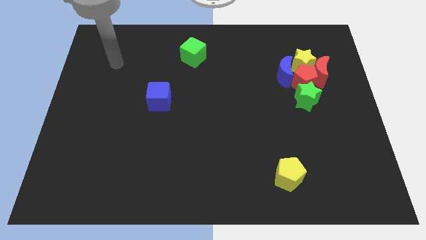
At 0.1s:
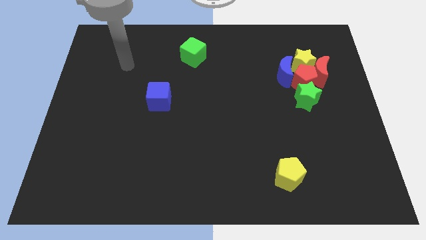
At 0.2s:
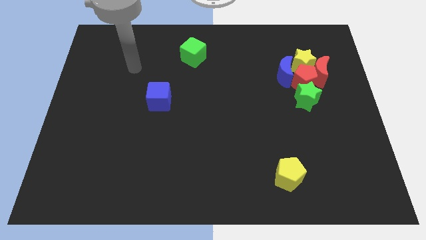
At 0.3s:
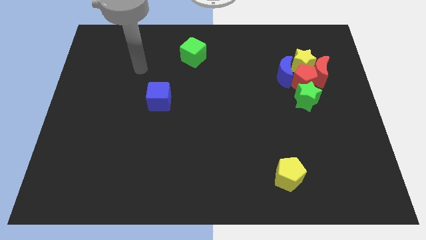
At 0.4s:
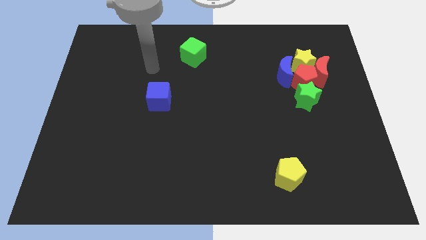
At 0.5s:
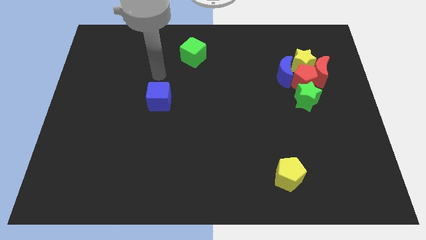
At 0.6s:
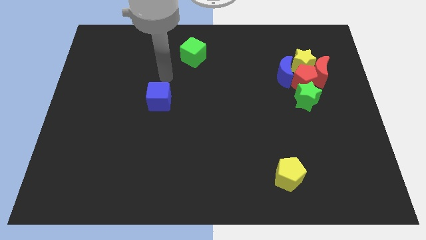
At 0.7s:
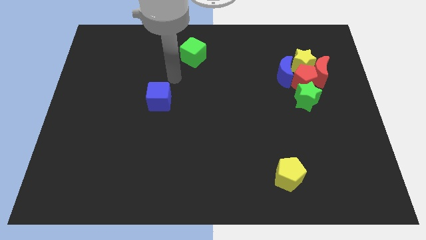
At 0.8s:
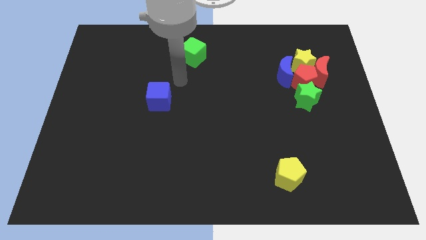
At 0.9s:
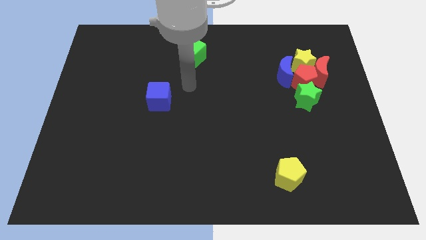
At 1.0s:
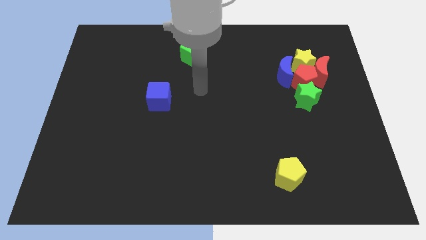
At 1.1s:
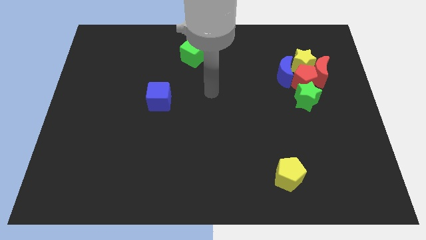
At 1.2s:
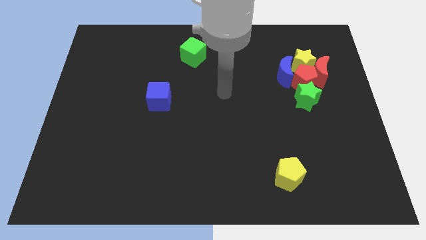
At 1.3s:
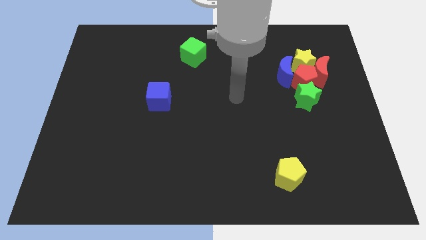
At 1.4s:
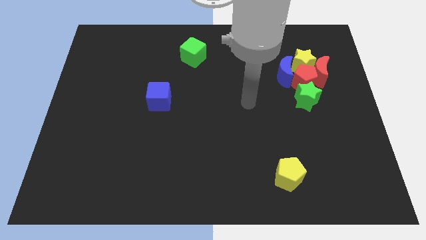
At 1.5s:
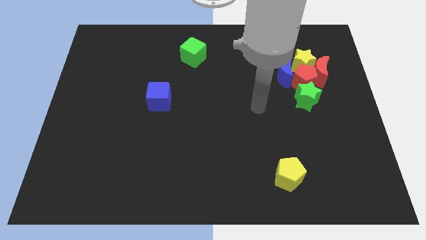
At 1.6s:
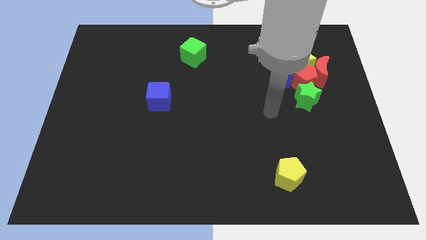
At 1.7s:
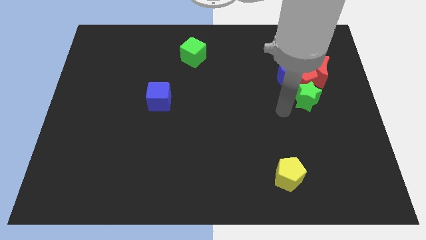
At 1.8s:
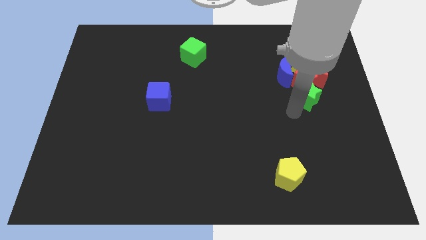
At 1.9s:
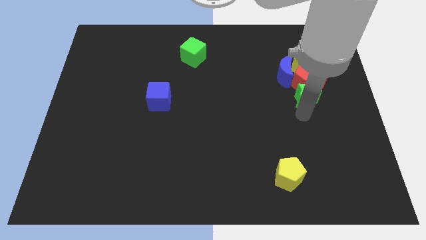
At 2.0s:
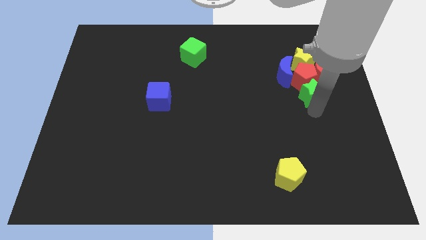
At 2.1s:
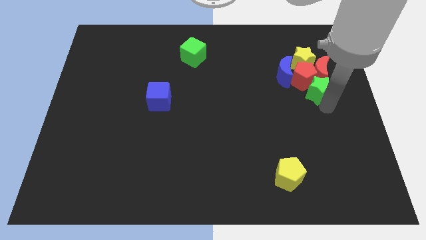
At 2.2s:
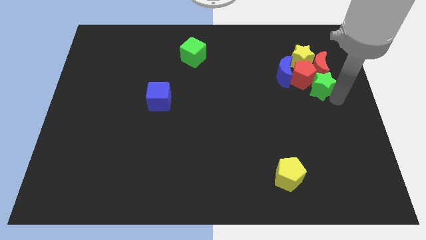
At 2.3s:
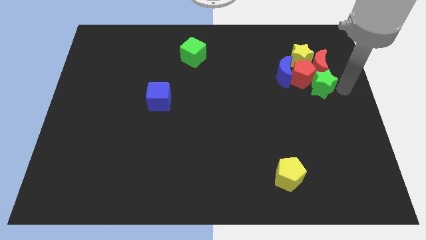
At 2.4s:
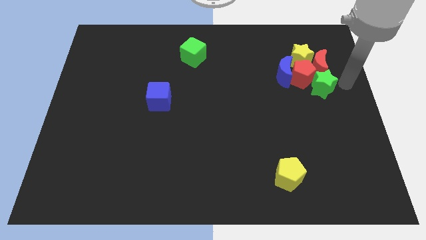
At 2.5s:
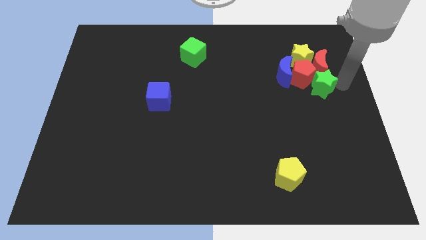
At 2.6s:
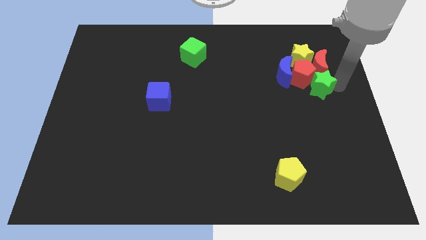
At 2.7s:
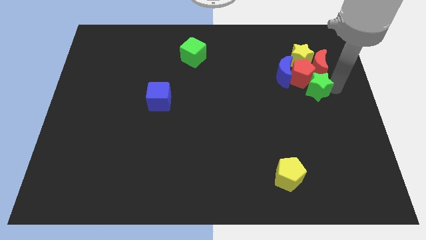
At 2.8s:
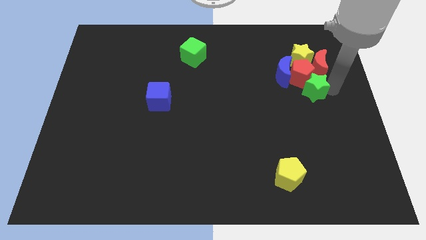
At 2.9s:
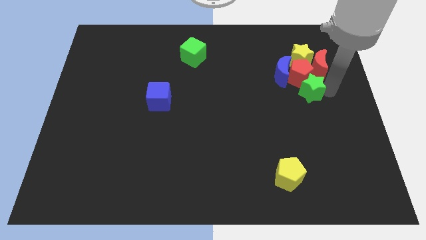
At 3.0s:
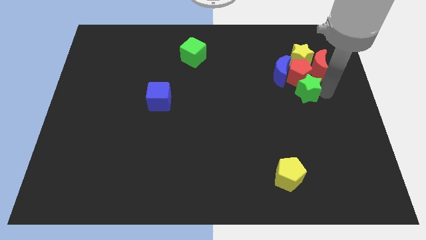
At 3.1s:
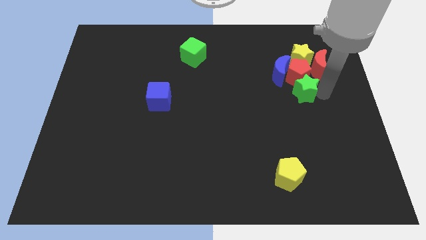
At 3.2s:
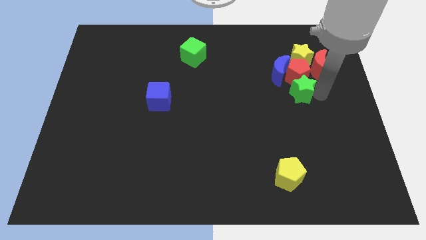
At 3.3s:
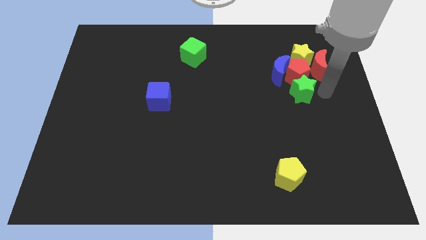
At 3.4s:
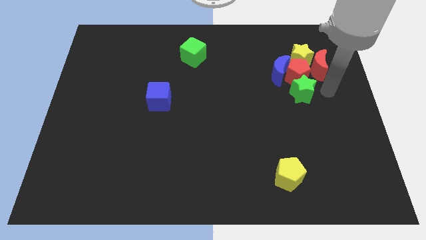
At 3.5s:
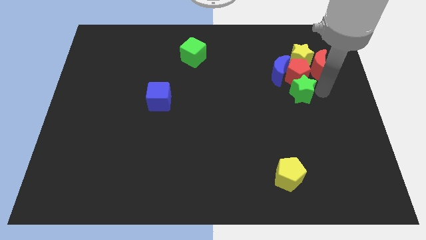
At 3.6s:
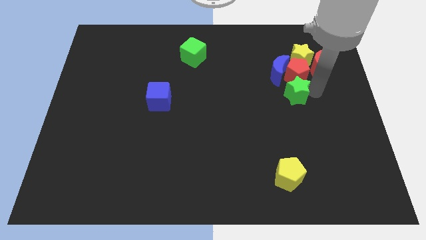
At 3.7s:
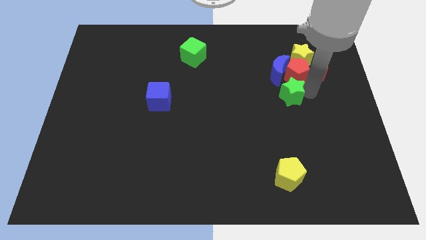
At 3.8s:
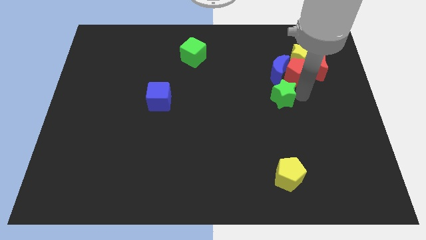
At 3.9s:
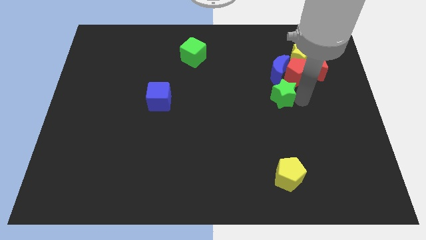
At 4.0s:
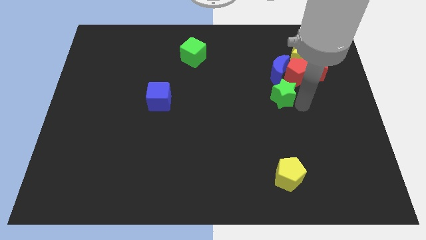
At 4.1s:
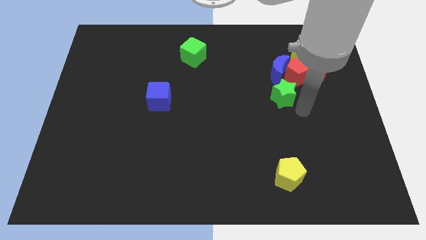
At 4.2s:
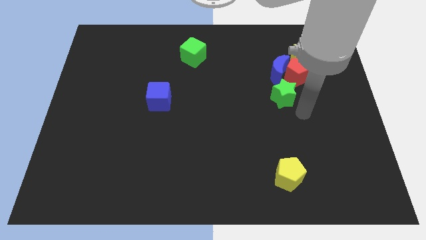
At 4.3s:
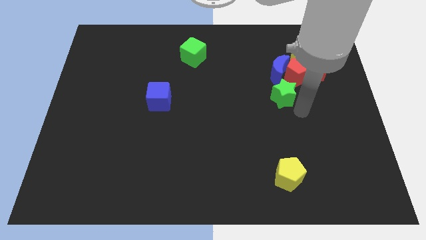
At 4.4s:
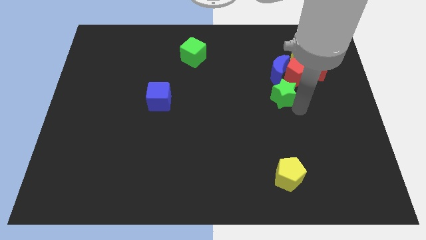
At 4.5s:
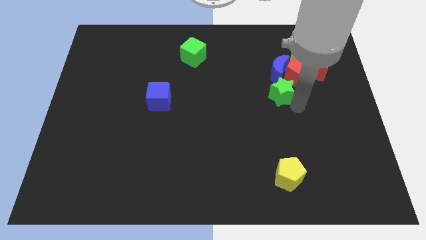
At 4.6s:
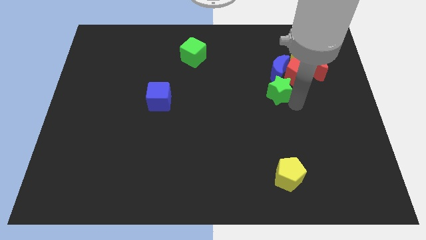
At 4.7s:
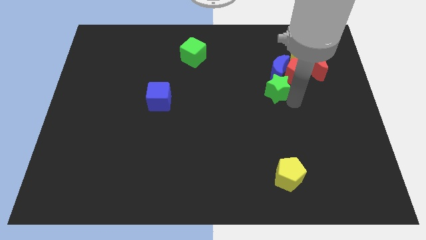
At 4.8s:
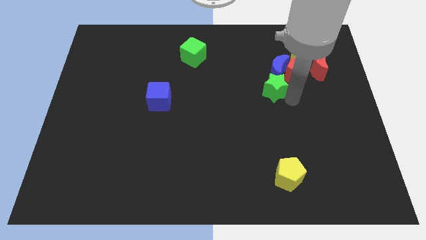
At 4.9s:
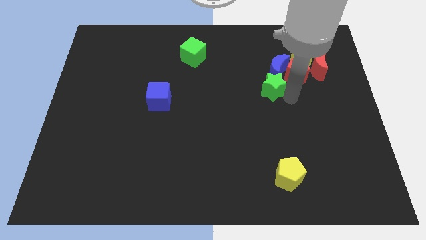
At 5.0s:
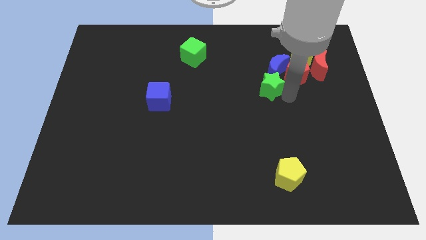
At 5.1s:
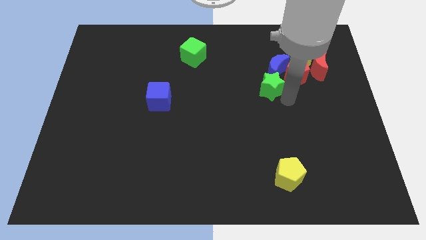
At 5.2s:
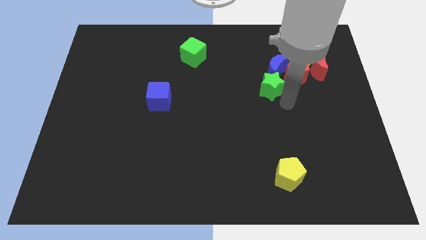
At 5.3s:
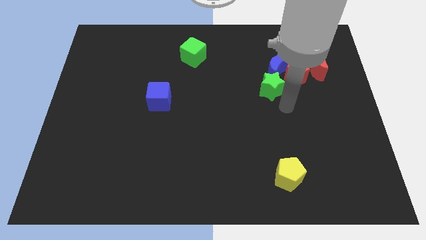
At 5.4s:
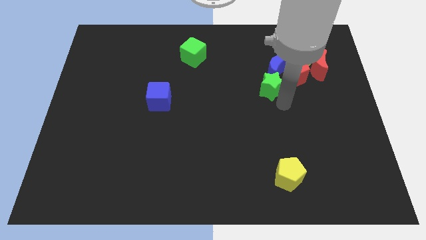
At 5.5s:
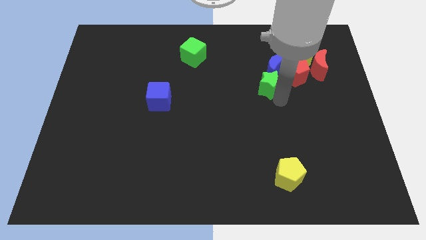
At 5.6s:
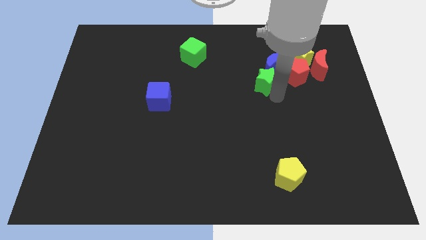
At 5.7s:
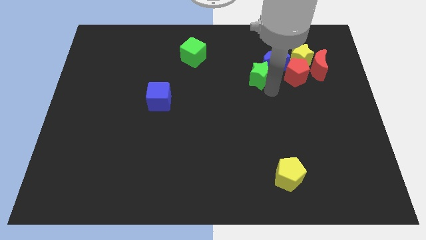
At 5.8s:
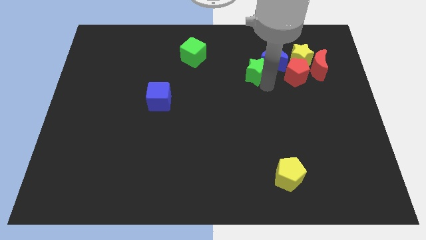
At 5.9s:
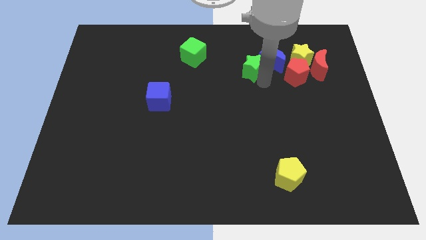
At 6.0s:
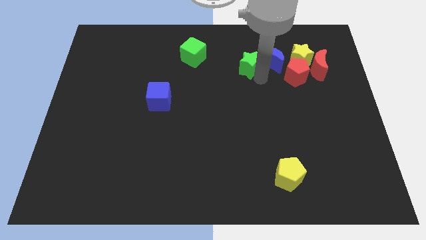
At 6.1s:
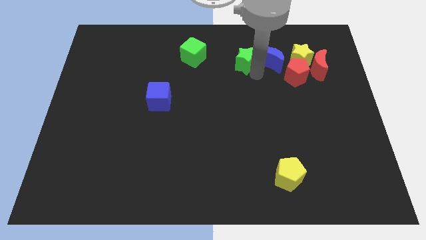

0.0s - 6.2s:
push the green star just right of the green cube

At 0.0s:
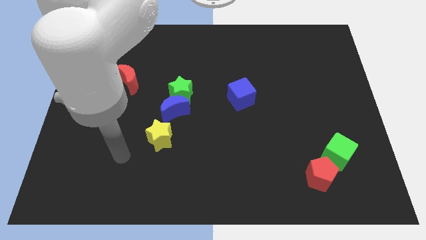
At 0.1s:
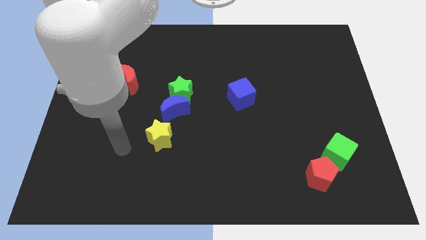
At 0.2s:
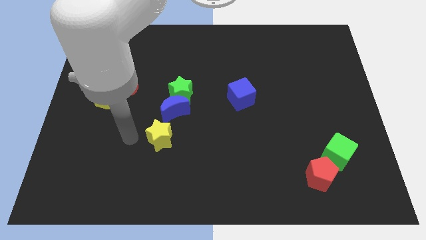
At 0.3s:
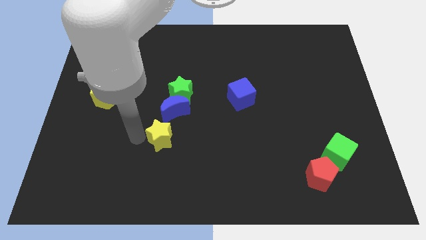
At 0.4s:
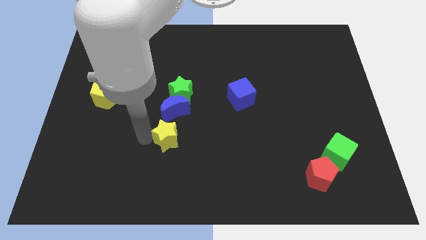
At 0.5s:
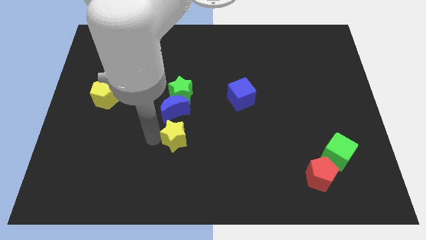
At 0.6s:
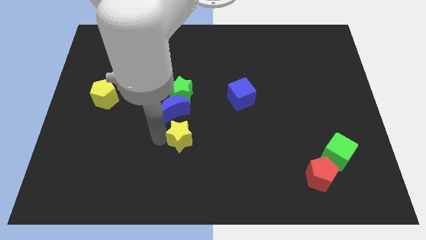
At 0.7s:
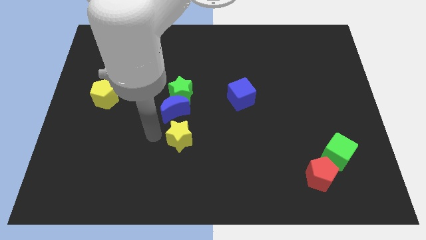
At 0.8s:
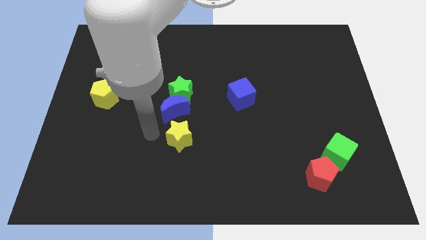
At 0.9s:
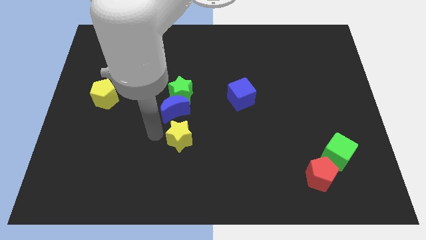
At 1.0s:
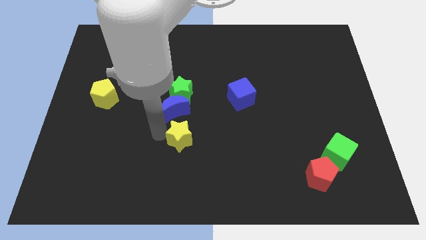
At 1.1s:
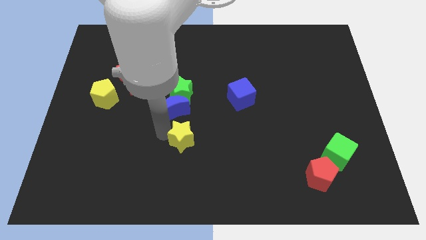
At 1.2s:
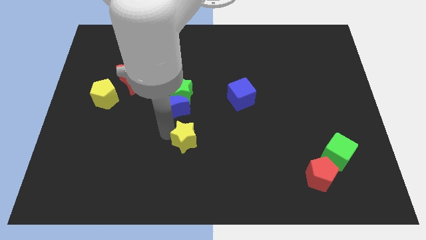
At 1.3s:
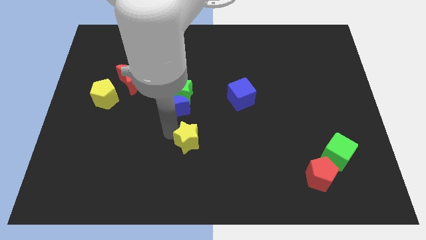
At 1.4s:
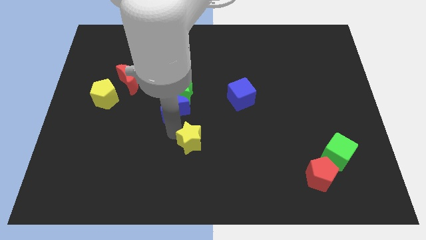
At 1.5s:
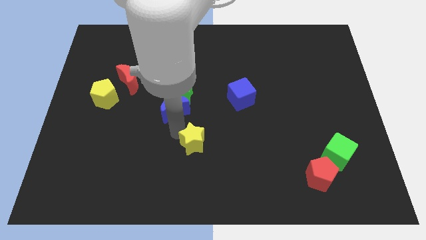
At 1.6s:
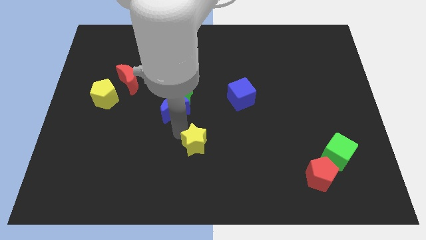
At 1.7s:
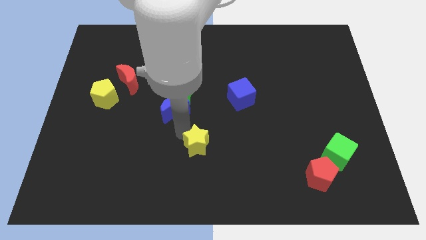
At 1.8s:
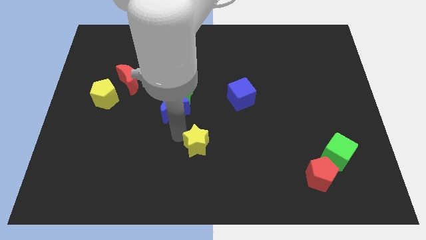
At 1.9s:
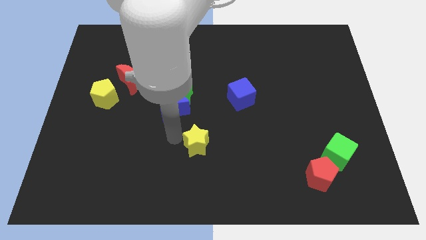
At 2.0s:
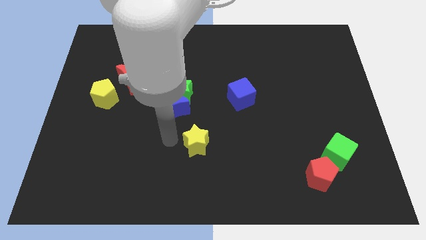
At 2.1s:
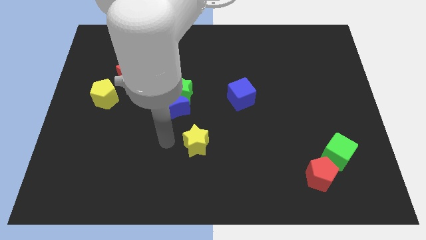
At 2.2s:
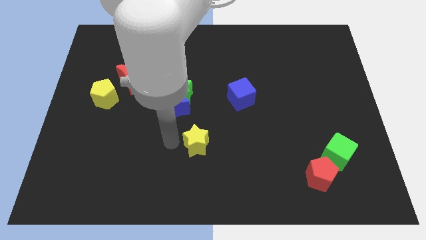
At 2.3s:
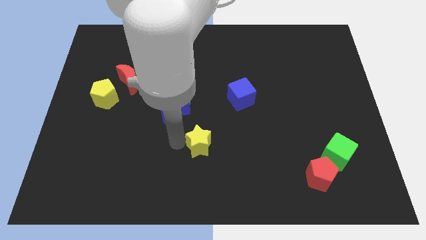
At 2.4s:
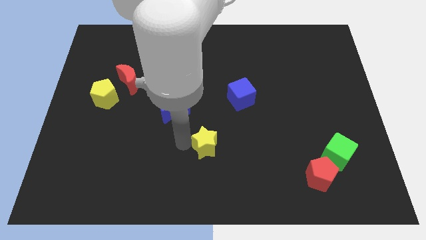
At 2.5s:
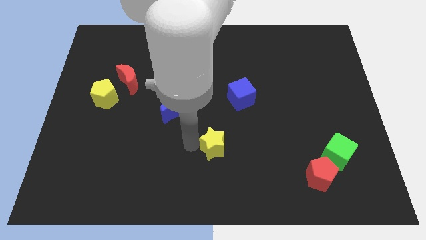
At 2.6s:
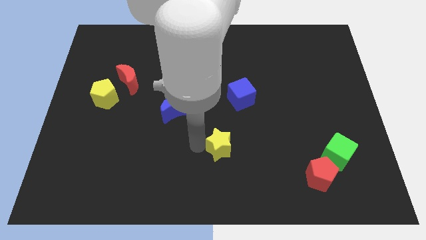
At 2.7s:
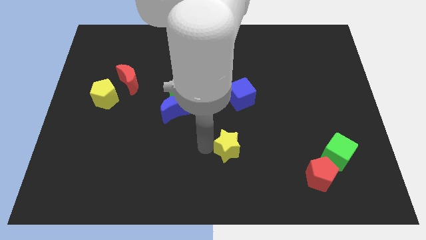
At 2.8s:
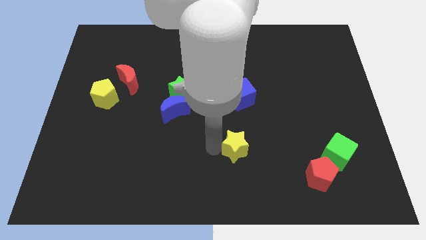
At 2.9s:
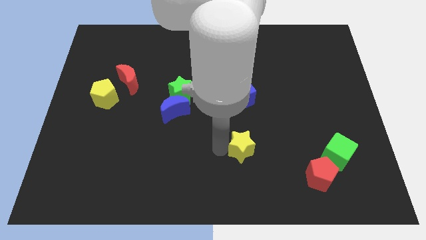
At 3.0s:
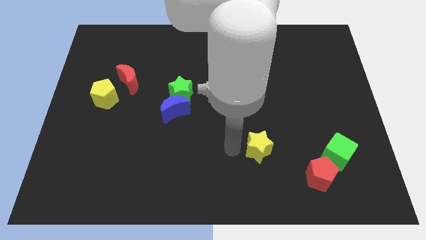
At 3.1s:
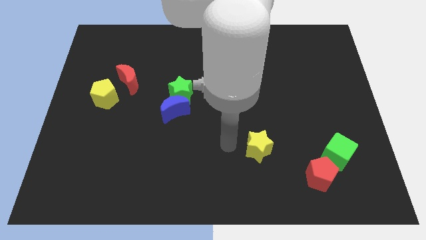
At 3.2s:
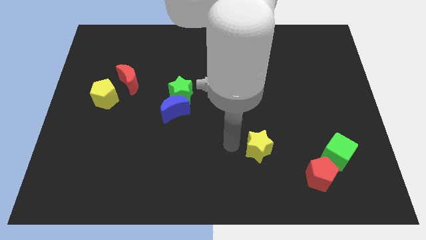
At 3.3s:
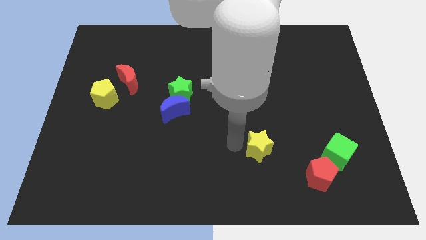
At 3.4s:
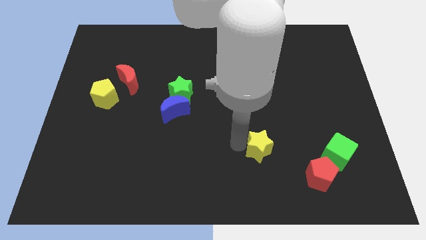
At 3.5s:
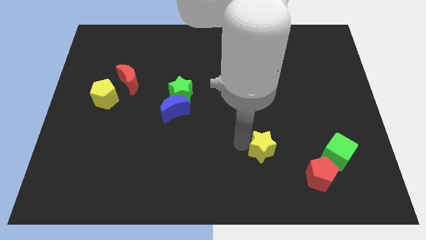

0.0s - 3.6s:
put the yellow star just left of the green cube
